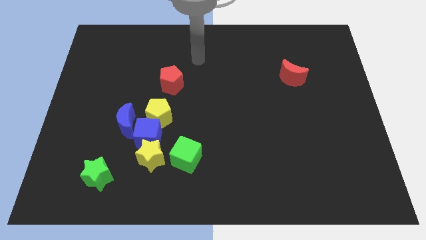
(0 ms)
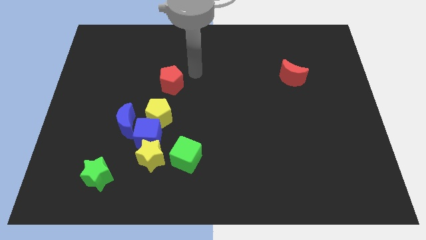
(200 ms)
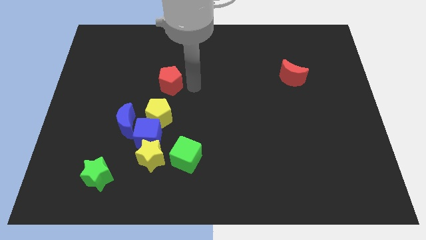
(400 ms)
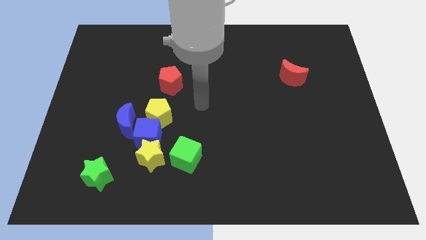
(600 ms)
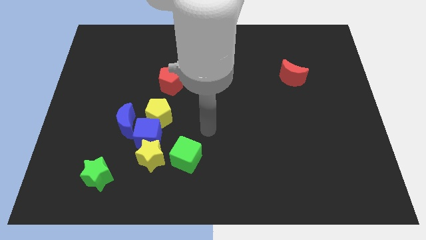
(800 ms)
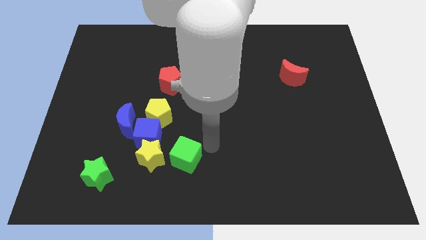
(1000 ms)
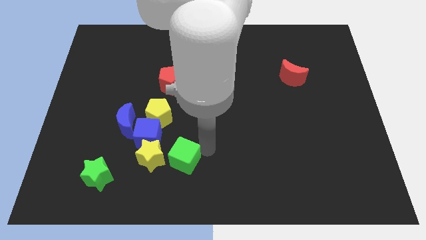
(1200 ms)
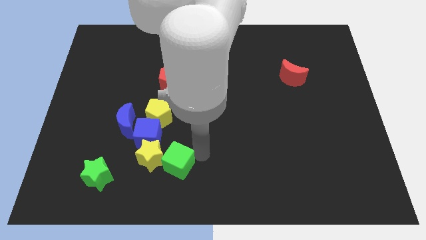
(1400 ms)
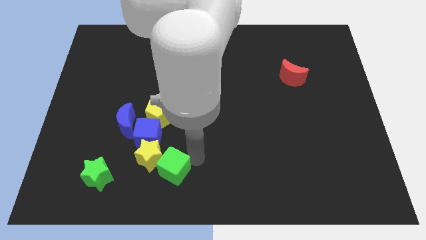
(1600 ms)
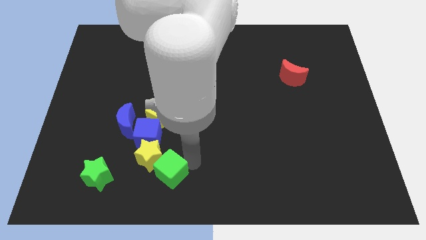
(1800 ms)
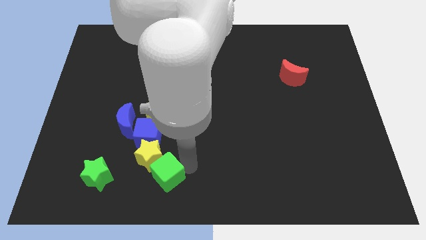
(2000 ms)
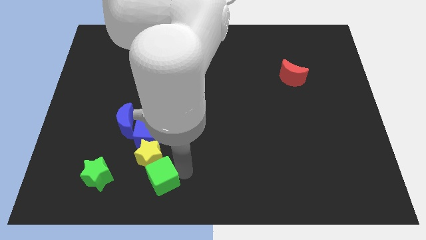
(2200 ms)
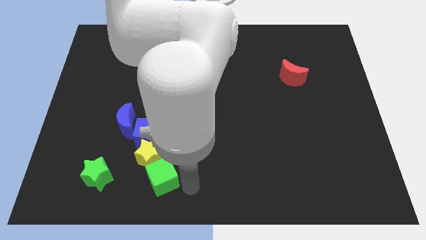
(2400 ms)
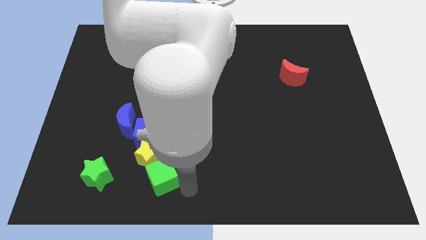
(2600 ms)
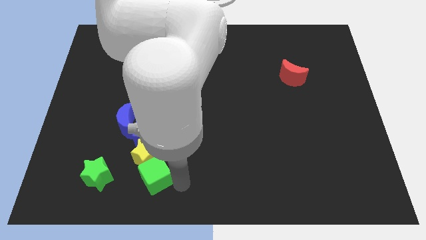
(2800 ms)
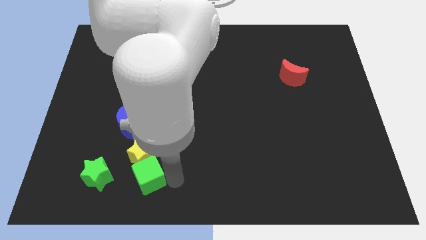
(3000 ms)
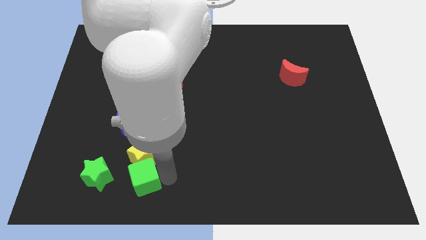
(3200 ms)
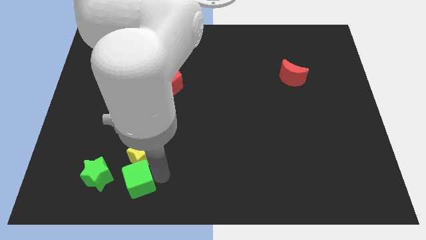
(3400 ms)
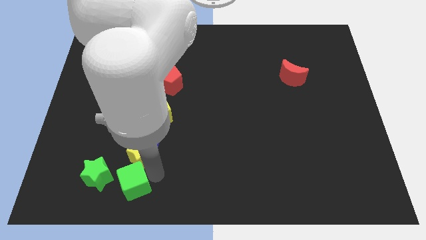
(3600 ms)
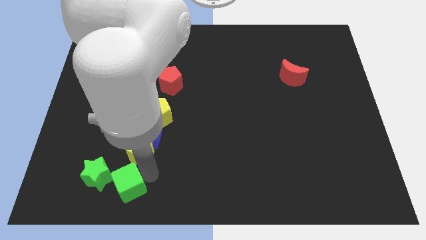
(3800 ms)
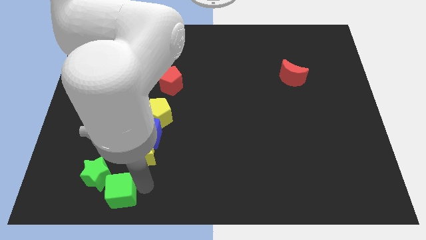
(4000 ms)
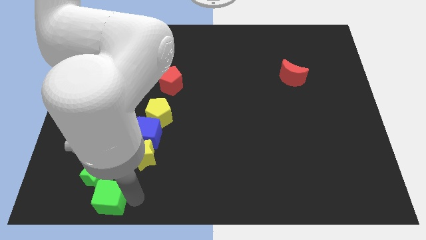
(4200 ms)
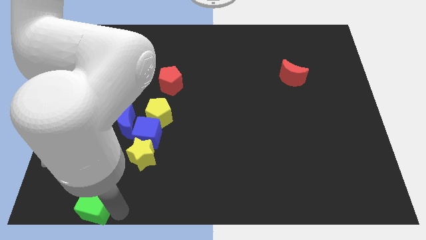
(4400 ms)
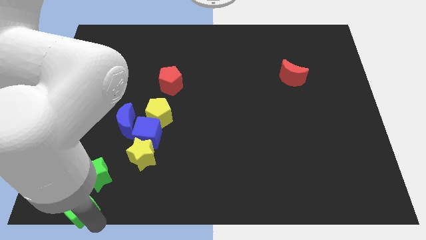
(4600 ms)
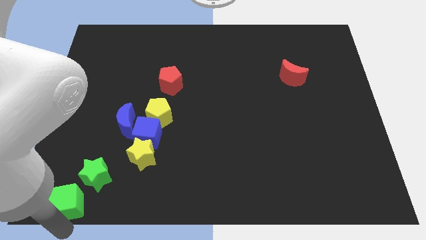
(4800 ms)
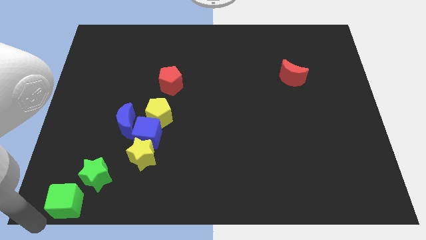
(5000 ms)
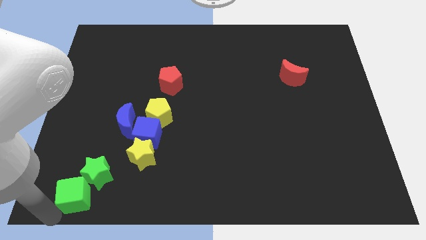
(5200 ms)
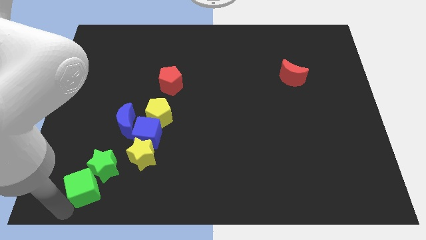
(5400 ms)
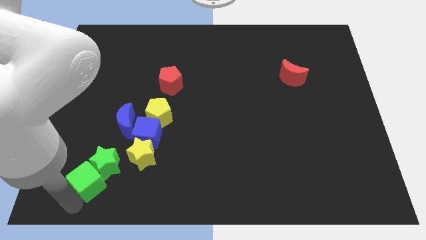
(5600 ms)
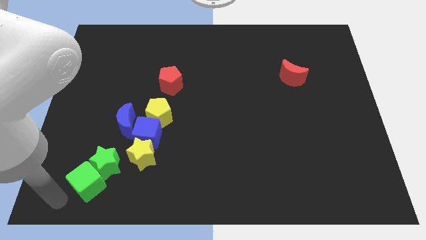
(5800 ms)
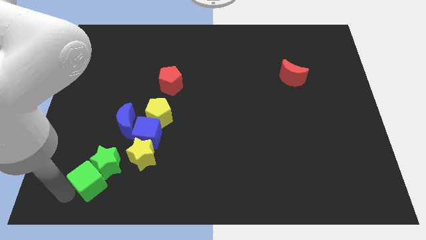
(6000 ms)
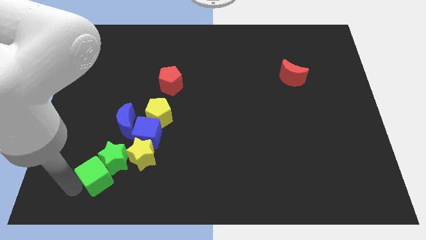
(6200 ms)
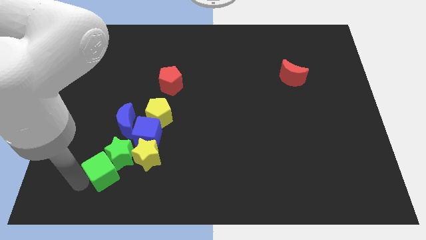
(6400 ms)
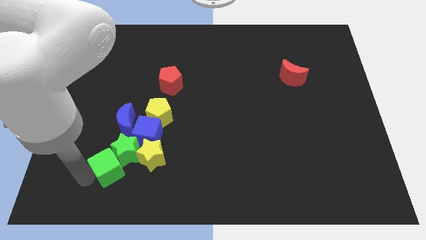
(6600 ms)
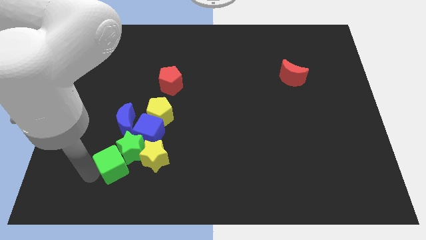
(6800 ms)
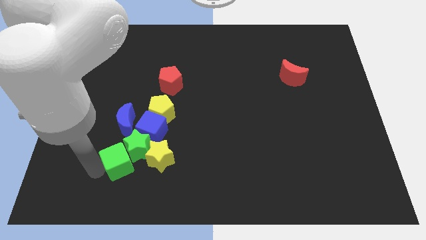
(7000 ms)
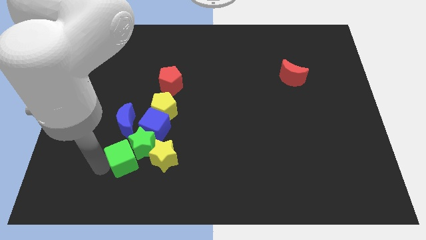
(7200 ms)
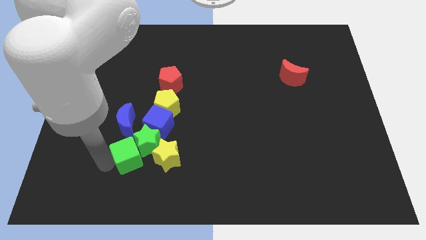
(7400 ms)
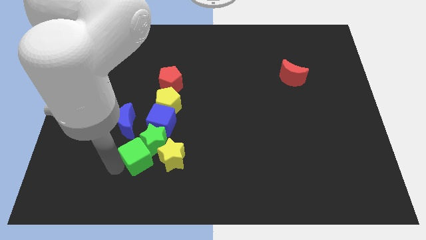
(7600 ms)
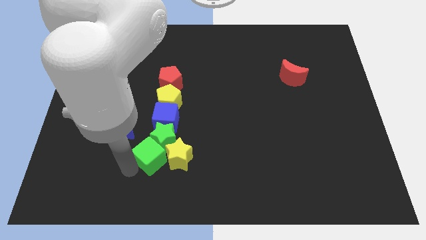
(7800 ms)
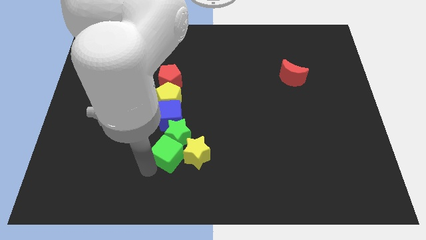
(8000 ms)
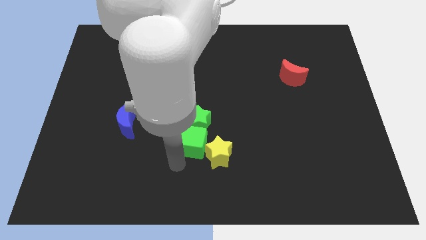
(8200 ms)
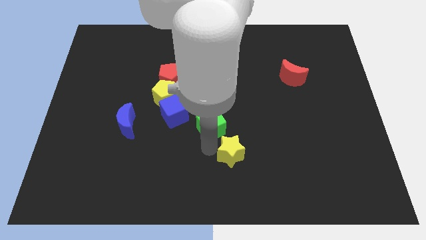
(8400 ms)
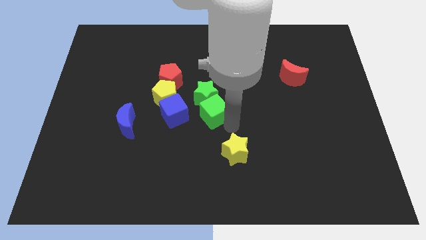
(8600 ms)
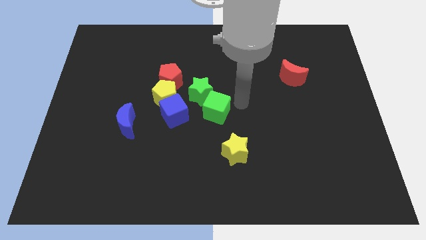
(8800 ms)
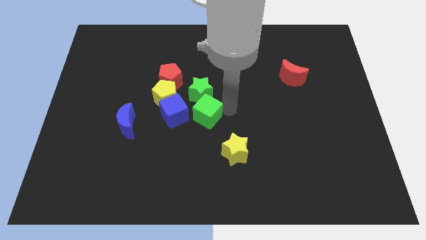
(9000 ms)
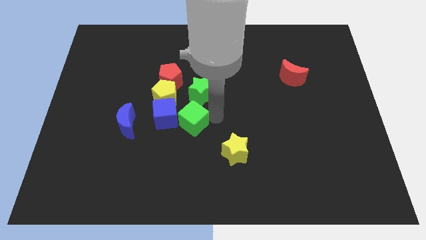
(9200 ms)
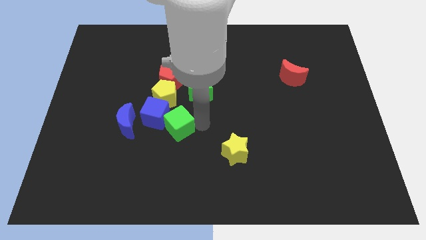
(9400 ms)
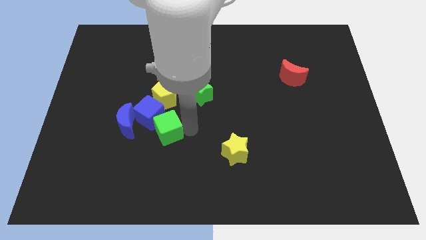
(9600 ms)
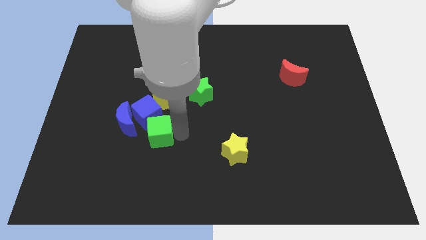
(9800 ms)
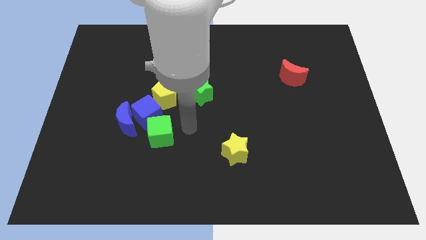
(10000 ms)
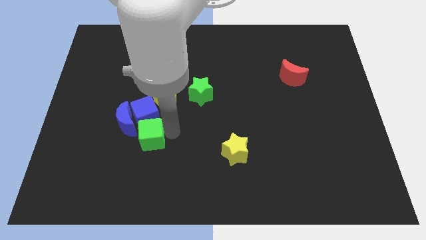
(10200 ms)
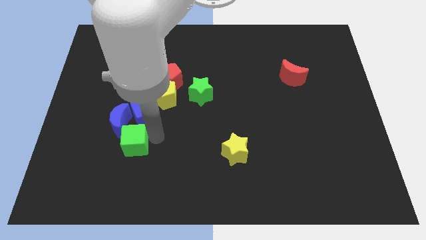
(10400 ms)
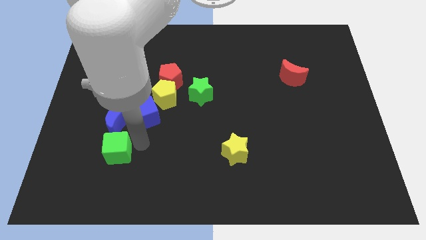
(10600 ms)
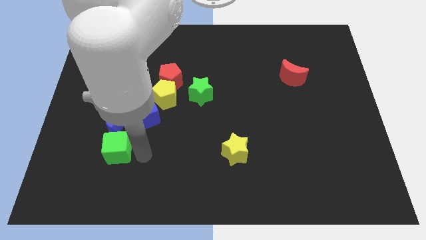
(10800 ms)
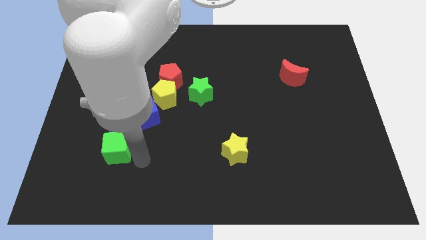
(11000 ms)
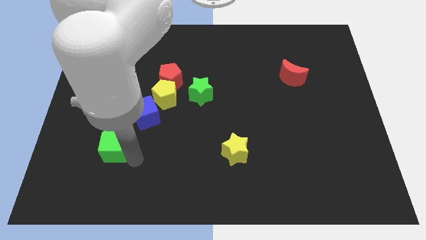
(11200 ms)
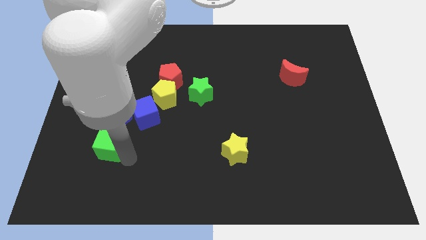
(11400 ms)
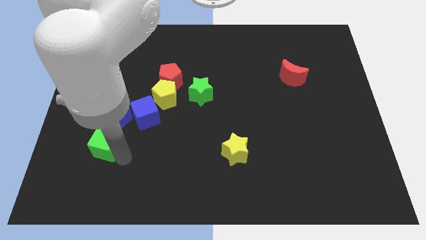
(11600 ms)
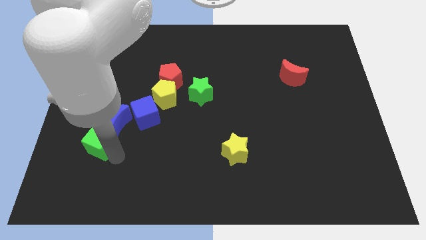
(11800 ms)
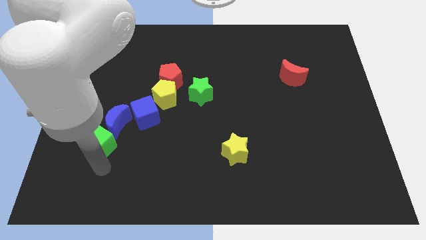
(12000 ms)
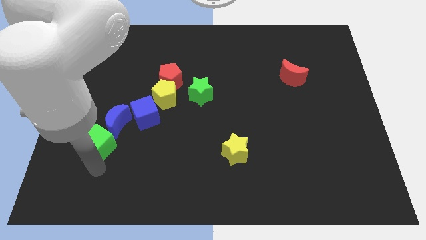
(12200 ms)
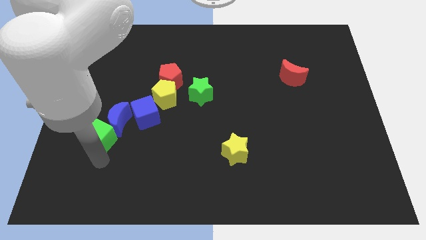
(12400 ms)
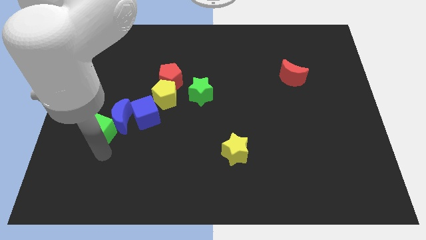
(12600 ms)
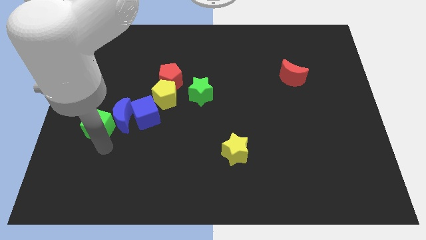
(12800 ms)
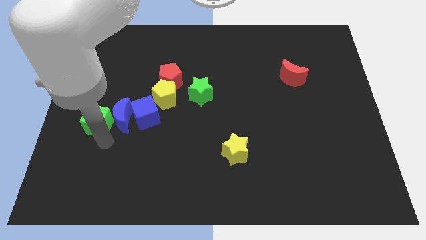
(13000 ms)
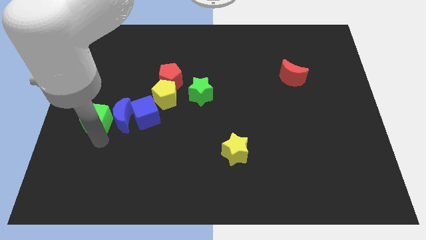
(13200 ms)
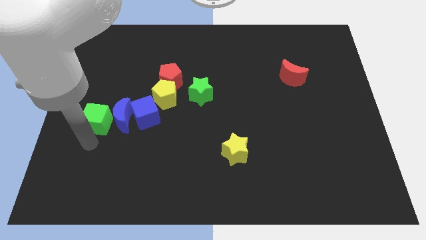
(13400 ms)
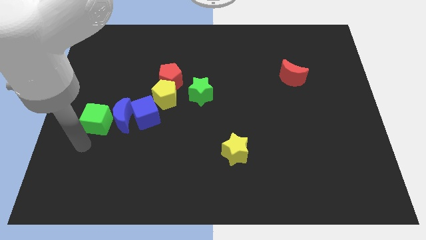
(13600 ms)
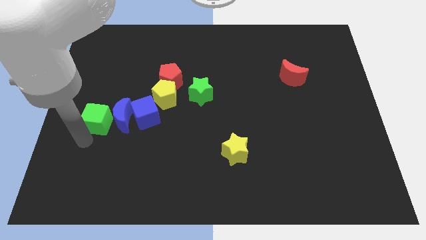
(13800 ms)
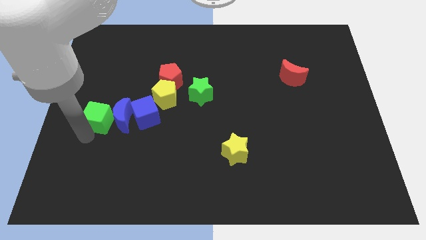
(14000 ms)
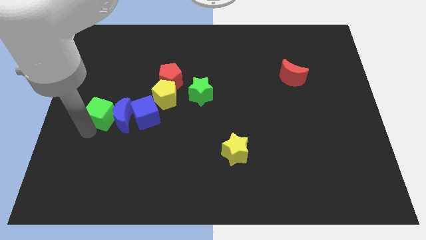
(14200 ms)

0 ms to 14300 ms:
slide the green cube upwards and to the left

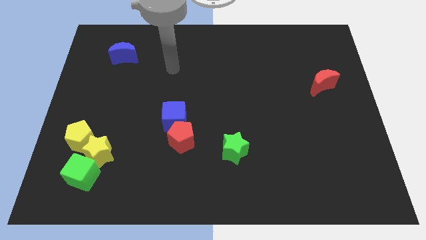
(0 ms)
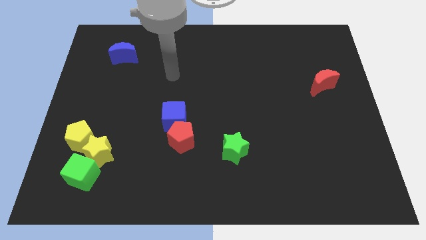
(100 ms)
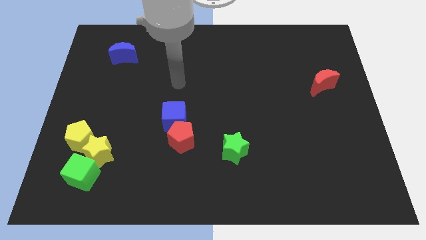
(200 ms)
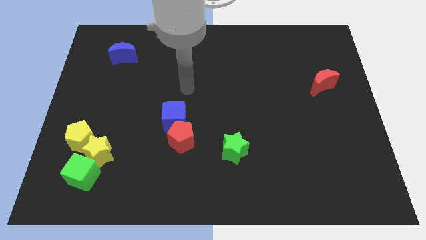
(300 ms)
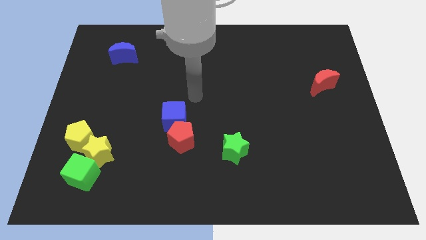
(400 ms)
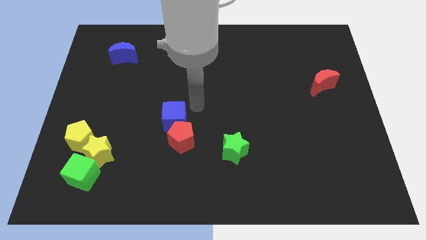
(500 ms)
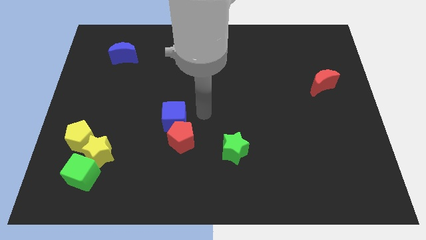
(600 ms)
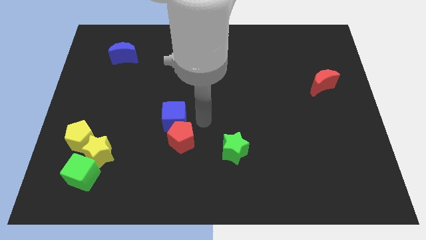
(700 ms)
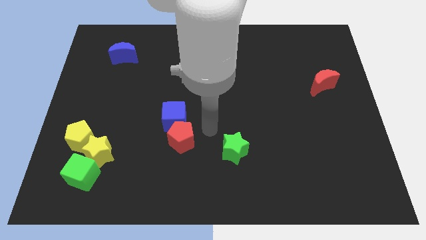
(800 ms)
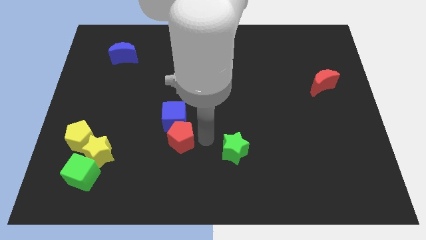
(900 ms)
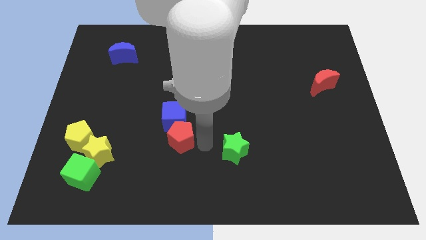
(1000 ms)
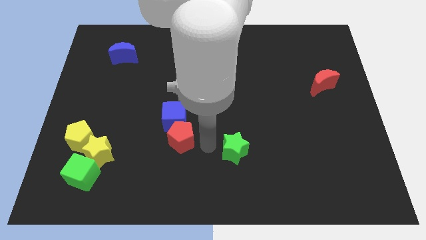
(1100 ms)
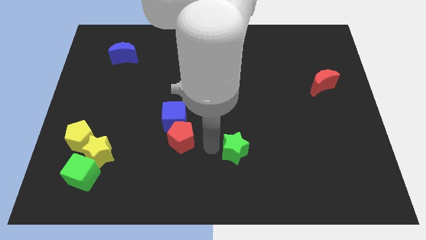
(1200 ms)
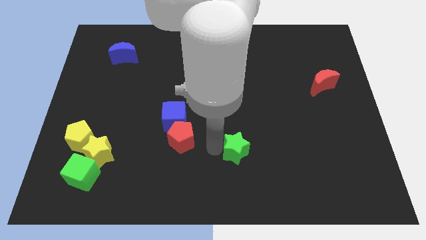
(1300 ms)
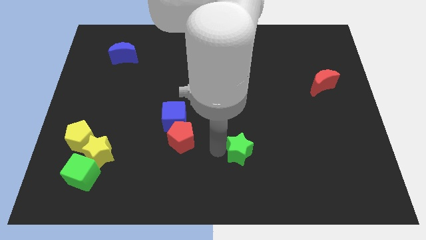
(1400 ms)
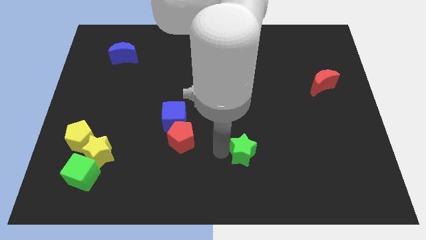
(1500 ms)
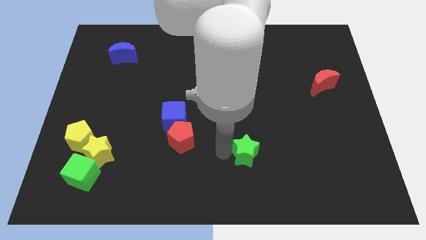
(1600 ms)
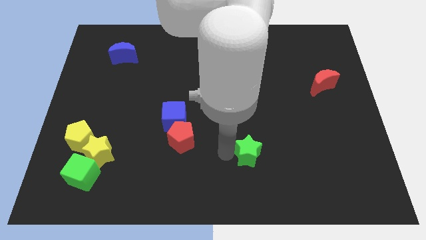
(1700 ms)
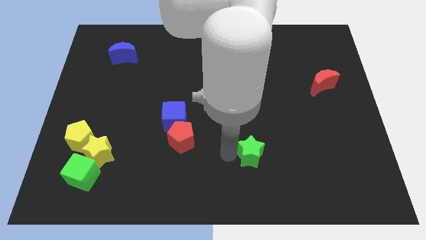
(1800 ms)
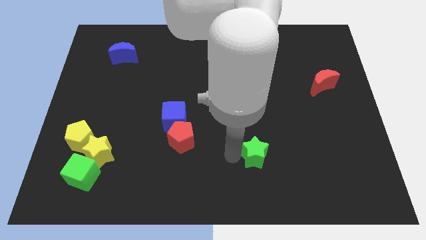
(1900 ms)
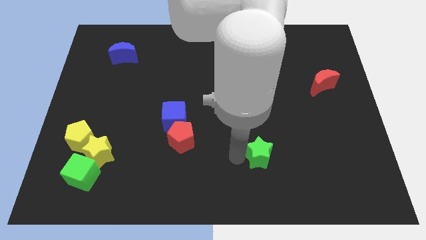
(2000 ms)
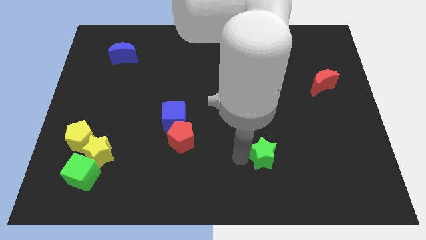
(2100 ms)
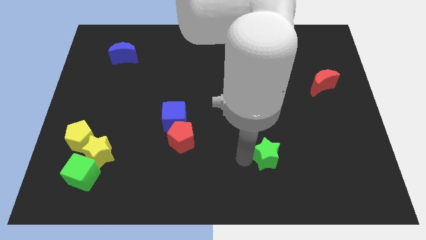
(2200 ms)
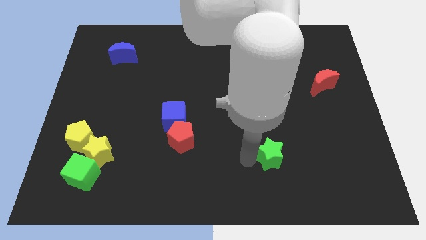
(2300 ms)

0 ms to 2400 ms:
push the green star somewhat to the right
